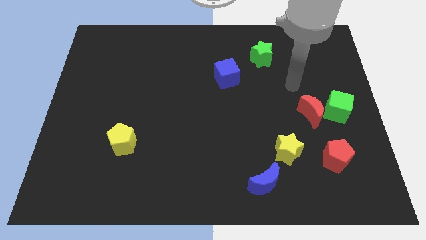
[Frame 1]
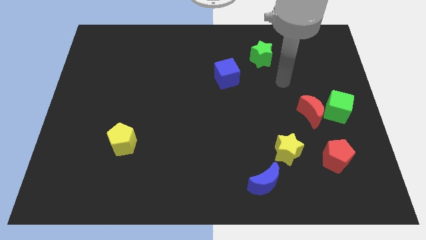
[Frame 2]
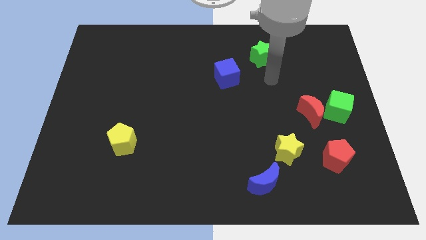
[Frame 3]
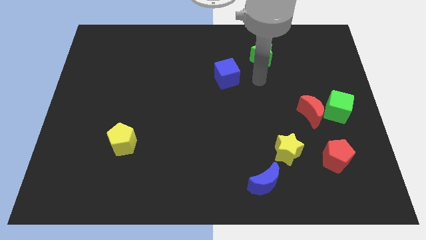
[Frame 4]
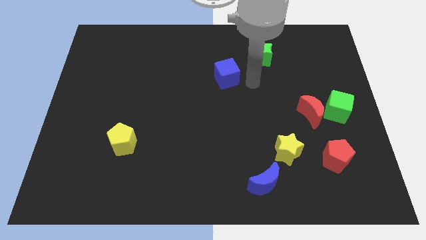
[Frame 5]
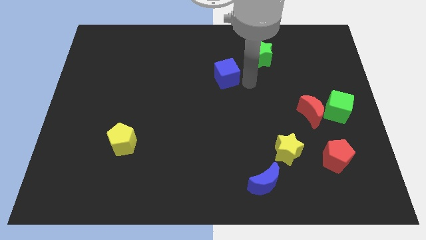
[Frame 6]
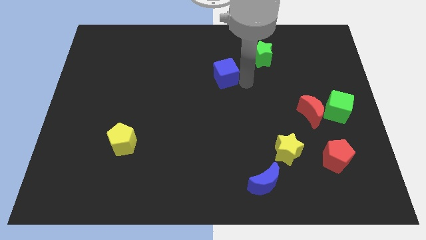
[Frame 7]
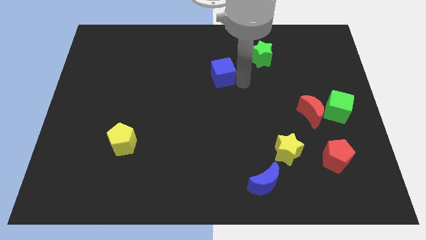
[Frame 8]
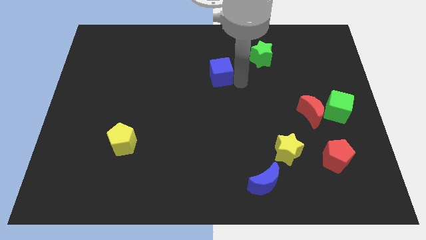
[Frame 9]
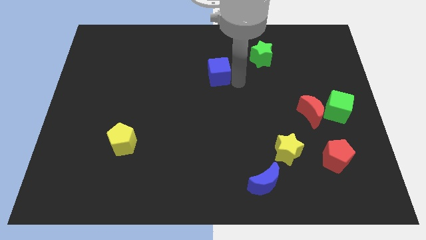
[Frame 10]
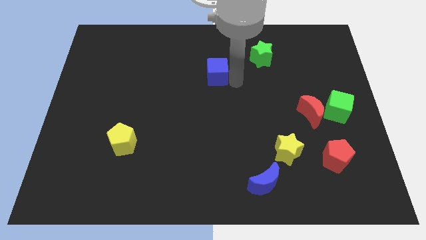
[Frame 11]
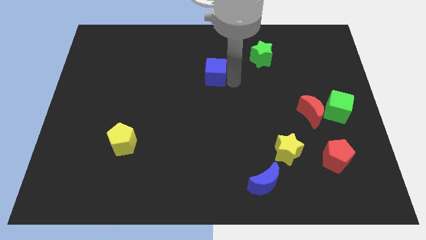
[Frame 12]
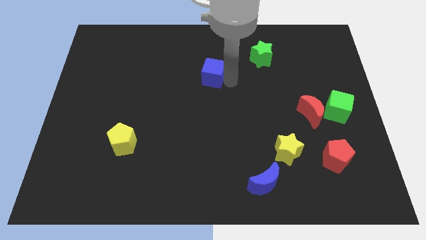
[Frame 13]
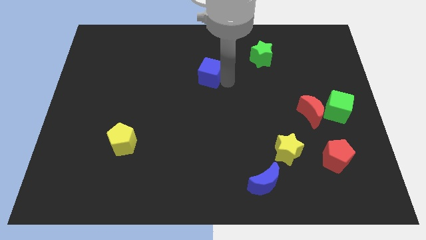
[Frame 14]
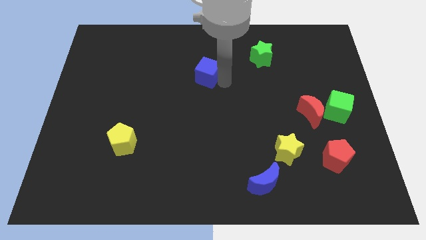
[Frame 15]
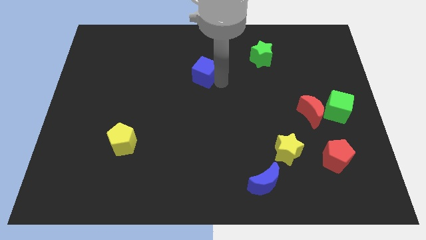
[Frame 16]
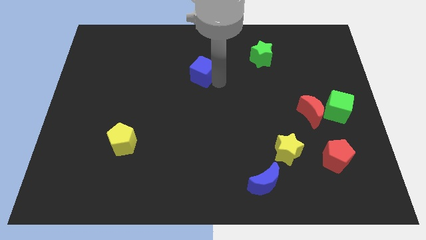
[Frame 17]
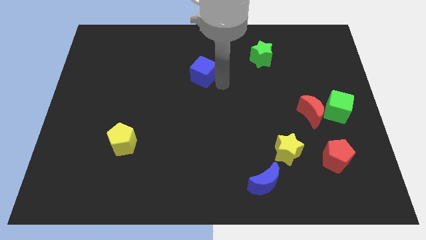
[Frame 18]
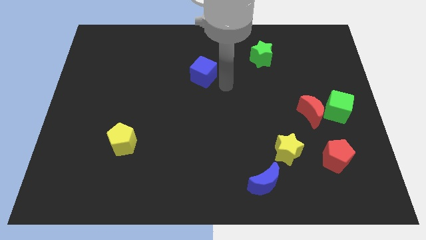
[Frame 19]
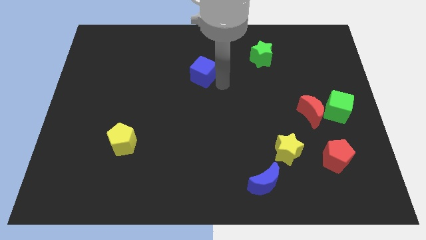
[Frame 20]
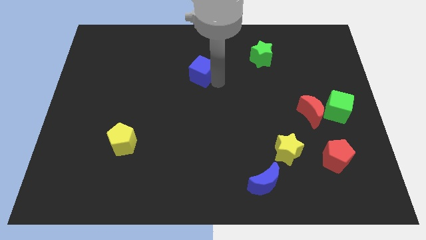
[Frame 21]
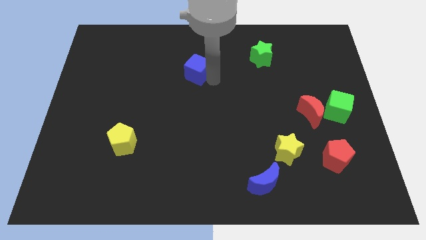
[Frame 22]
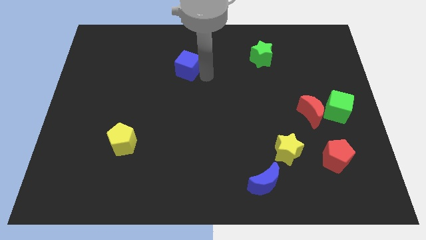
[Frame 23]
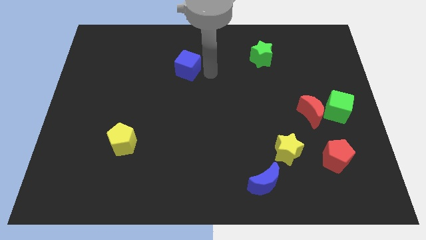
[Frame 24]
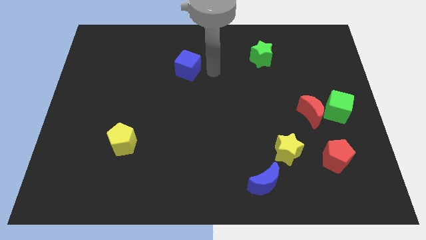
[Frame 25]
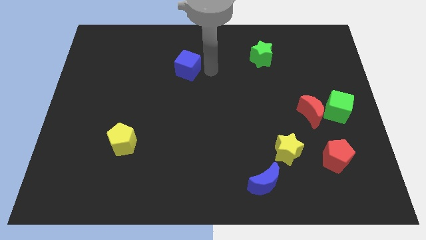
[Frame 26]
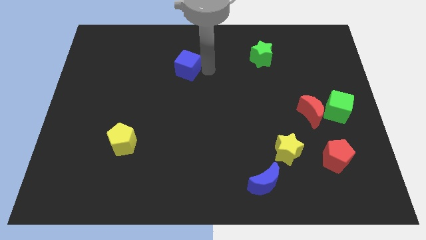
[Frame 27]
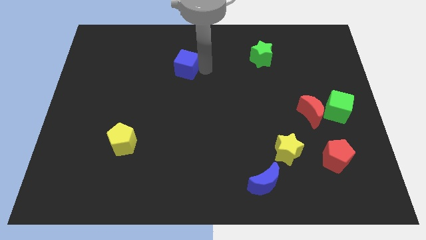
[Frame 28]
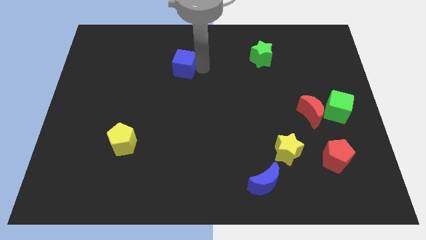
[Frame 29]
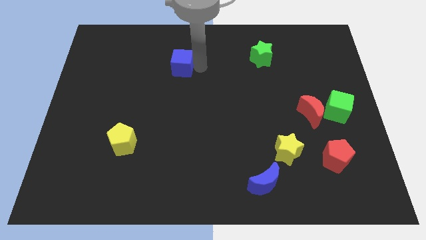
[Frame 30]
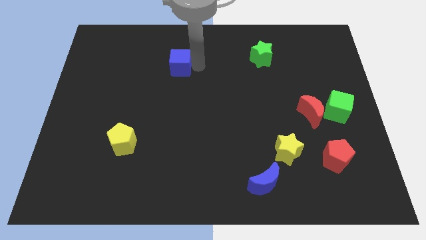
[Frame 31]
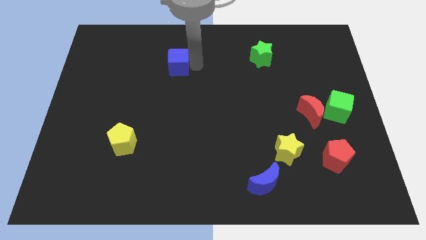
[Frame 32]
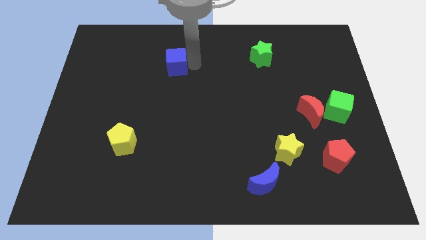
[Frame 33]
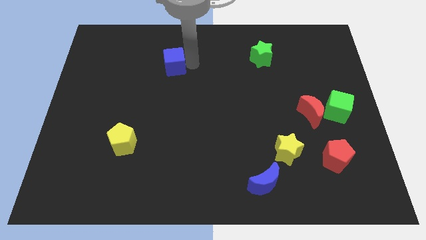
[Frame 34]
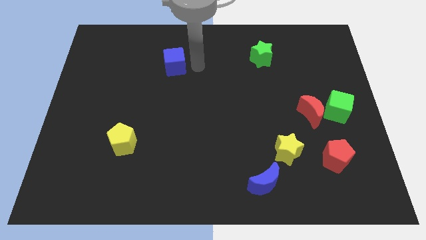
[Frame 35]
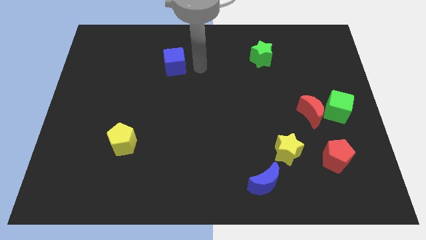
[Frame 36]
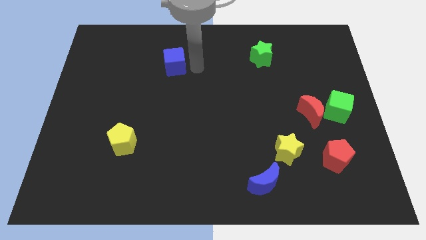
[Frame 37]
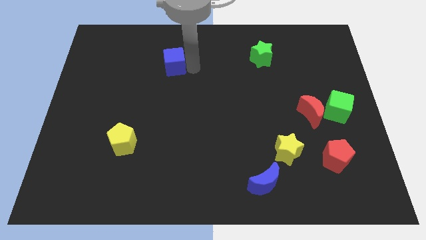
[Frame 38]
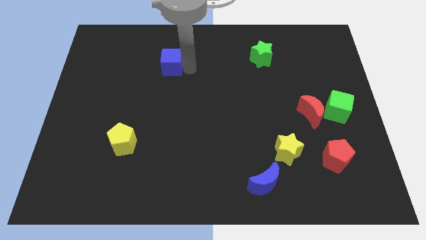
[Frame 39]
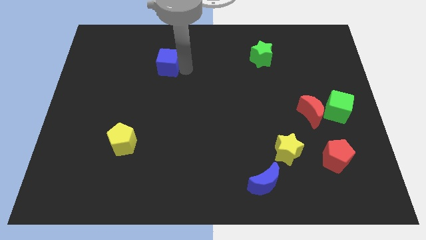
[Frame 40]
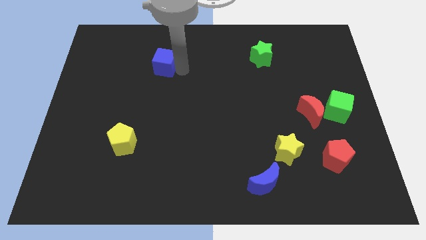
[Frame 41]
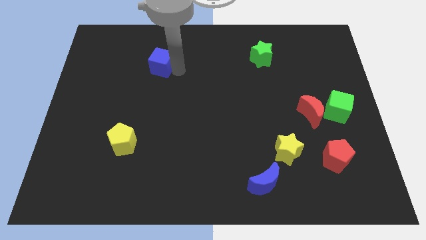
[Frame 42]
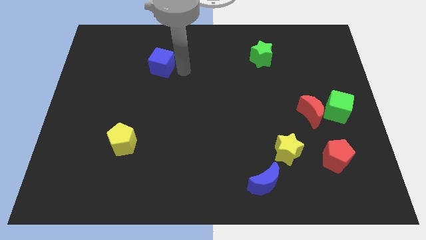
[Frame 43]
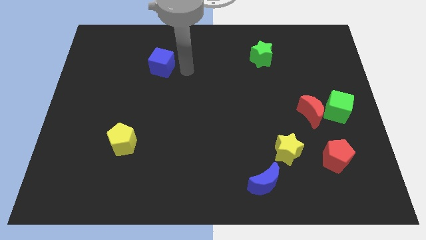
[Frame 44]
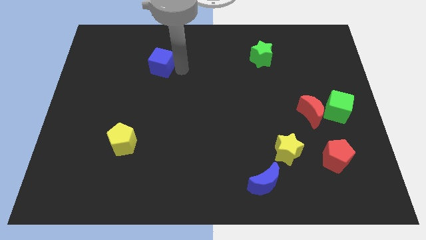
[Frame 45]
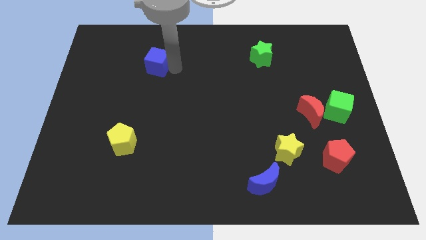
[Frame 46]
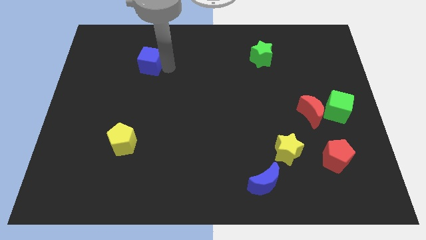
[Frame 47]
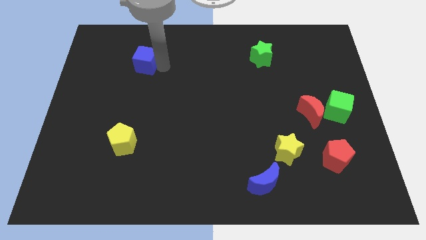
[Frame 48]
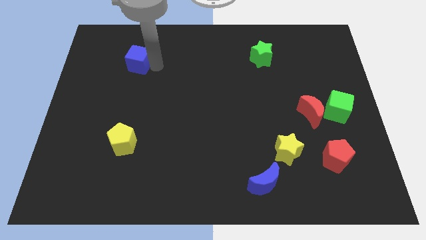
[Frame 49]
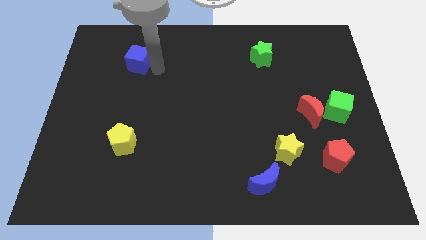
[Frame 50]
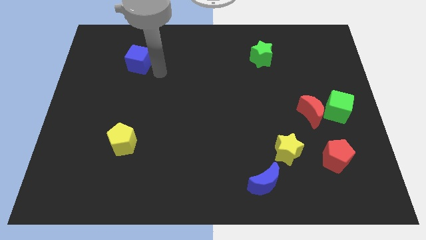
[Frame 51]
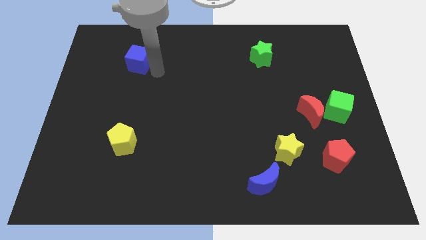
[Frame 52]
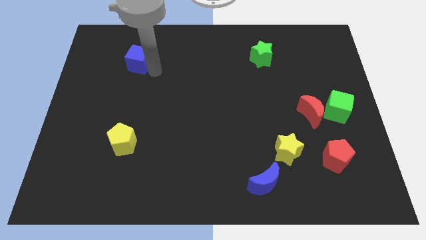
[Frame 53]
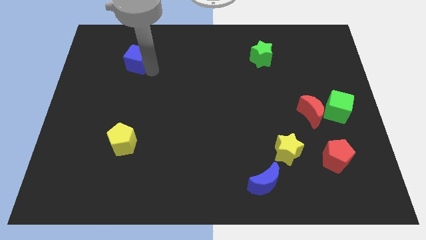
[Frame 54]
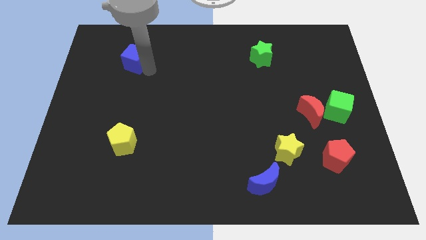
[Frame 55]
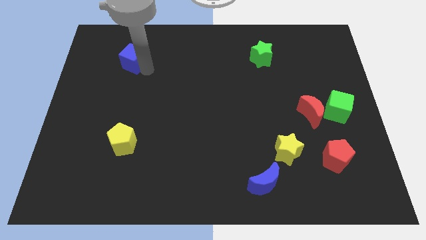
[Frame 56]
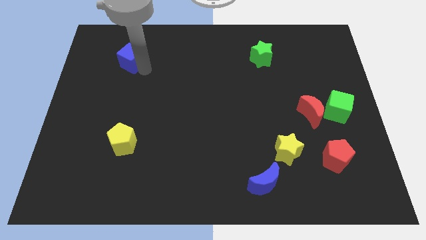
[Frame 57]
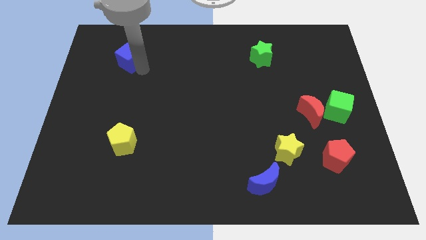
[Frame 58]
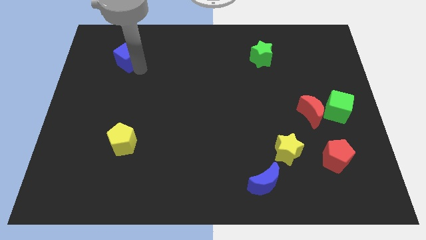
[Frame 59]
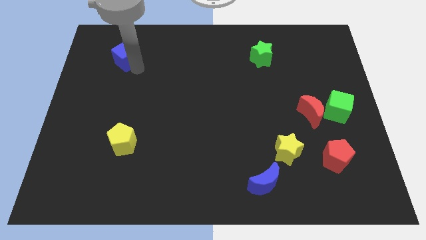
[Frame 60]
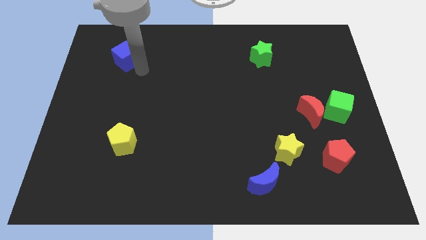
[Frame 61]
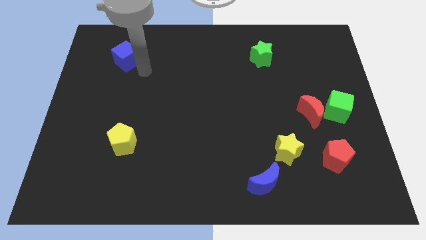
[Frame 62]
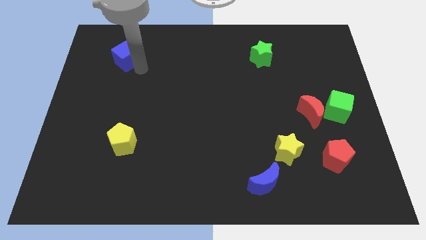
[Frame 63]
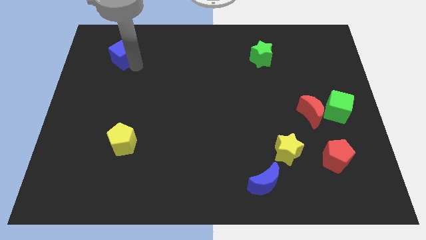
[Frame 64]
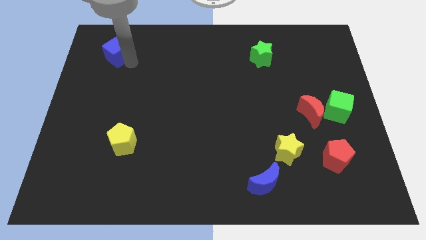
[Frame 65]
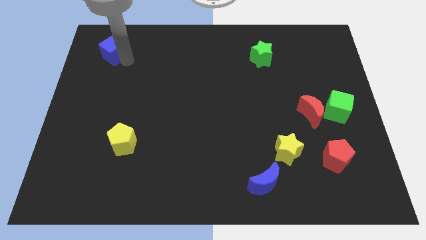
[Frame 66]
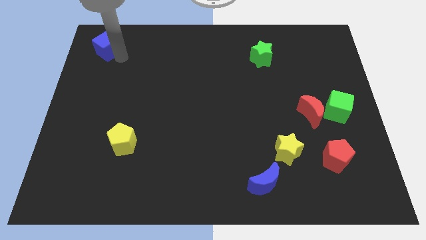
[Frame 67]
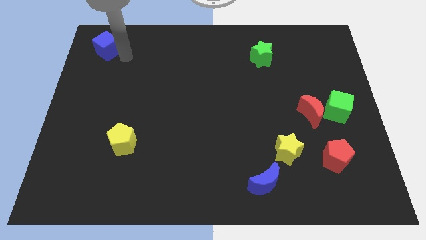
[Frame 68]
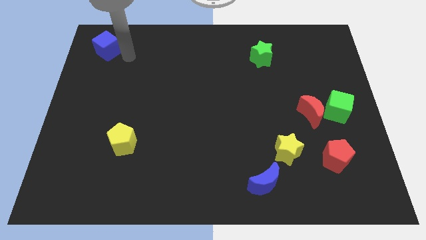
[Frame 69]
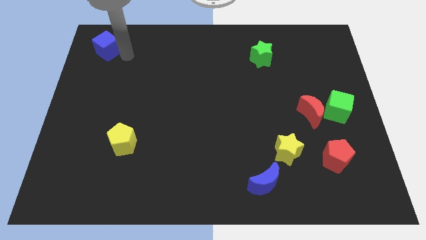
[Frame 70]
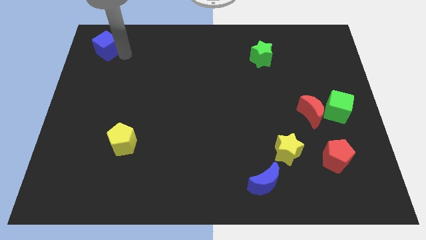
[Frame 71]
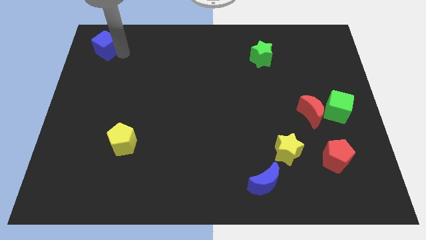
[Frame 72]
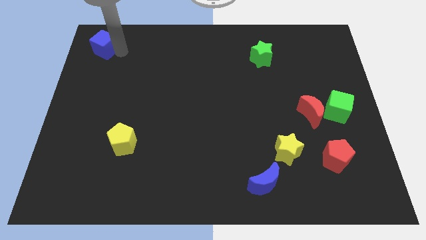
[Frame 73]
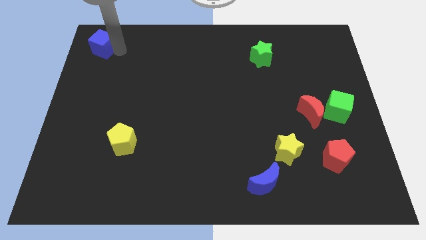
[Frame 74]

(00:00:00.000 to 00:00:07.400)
move the blue cube to the top left corner
